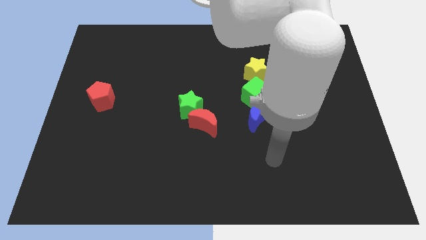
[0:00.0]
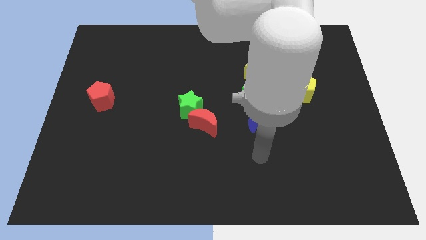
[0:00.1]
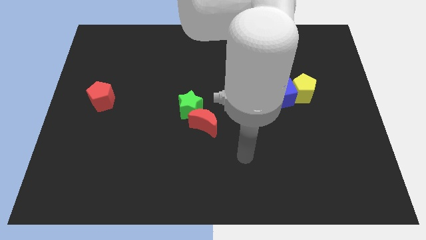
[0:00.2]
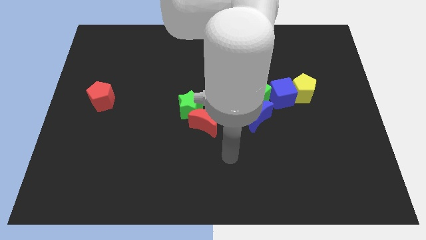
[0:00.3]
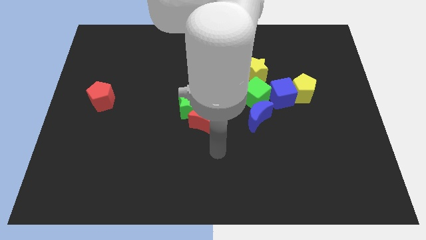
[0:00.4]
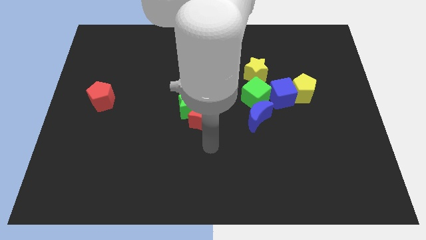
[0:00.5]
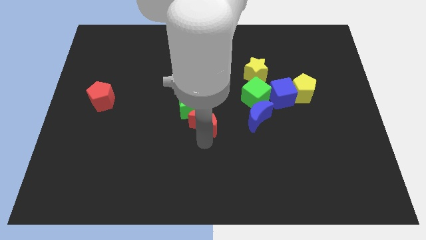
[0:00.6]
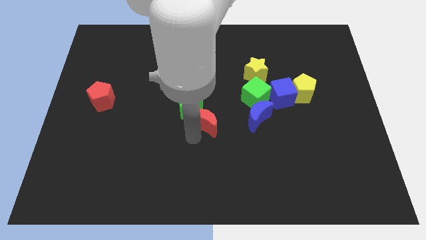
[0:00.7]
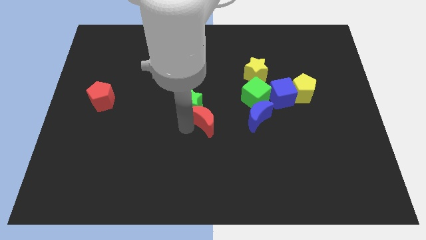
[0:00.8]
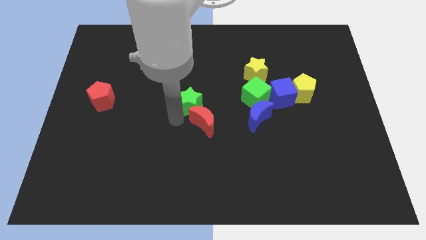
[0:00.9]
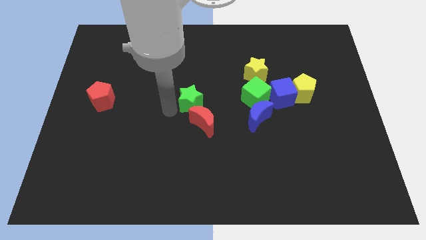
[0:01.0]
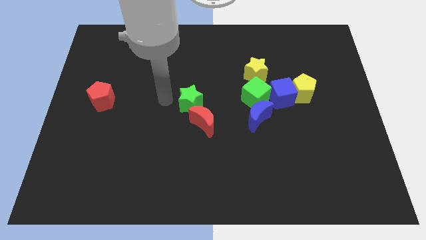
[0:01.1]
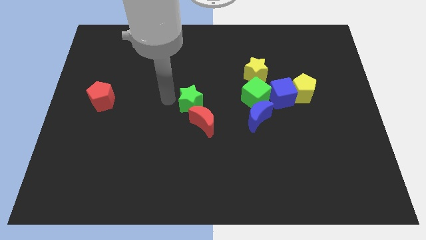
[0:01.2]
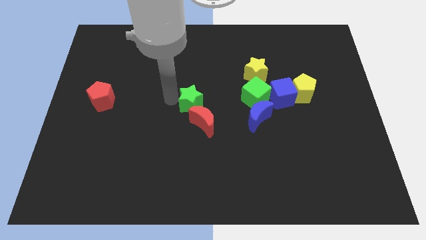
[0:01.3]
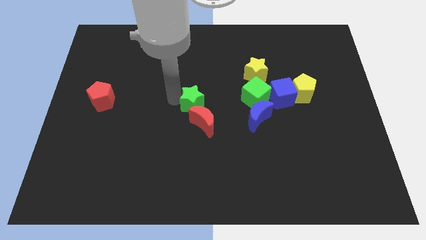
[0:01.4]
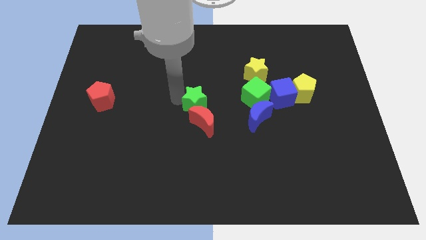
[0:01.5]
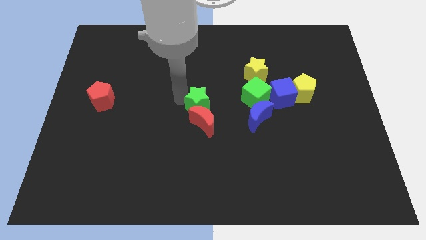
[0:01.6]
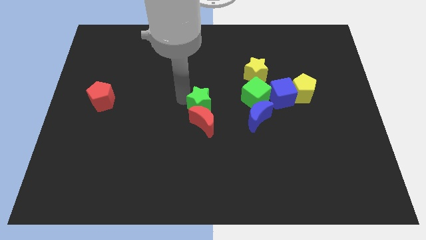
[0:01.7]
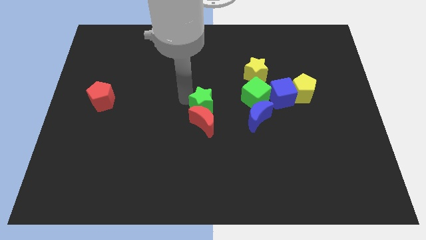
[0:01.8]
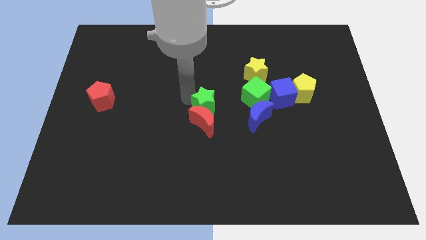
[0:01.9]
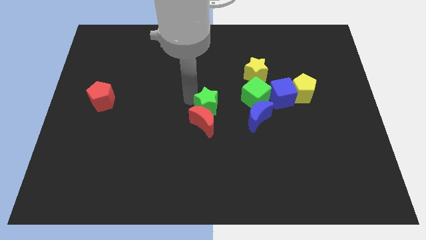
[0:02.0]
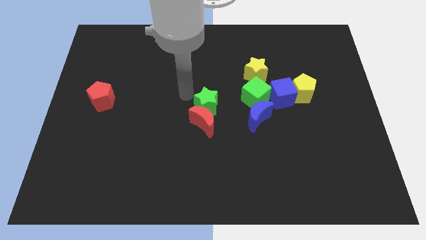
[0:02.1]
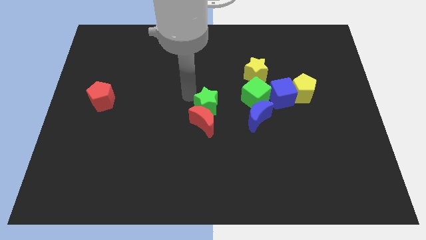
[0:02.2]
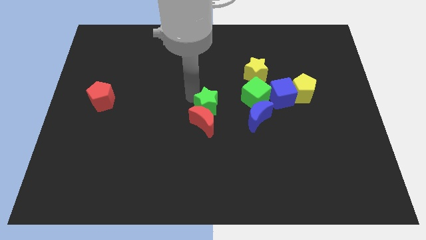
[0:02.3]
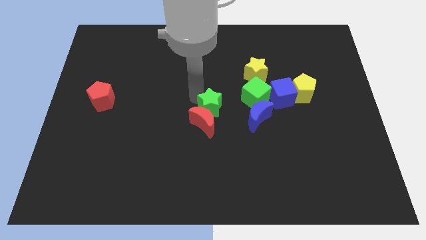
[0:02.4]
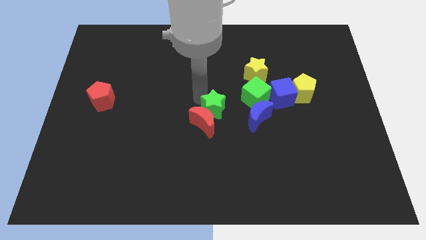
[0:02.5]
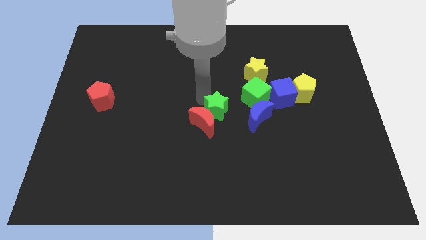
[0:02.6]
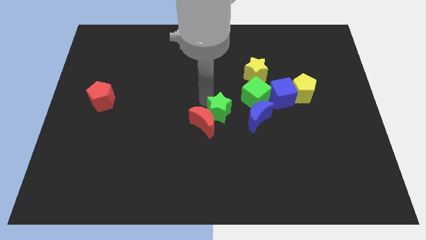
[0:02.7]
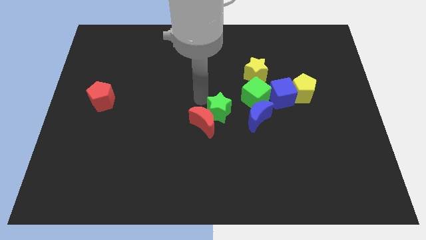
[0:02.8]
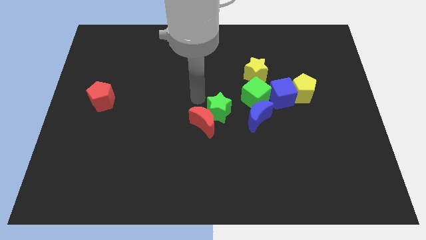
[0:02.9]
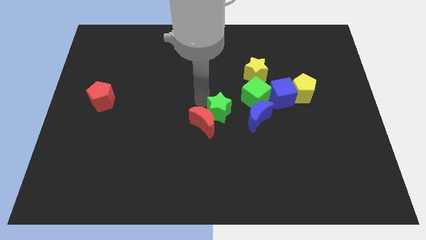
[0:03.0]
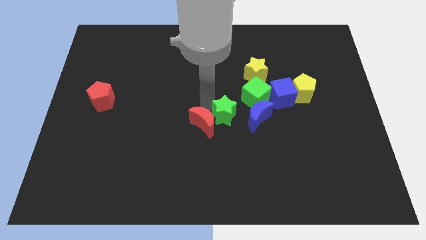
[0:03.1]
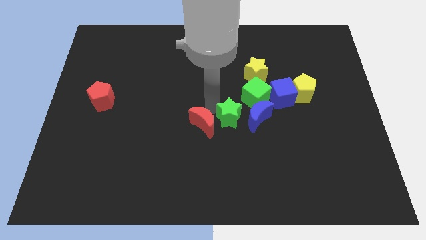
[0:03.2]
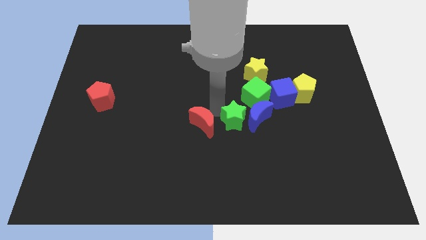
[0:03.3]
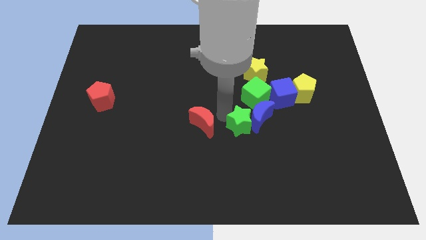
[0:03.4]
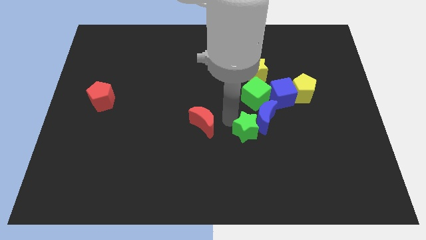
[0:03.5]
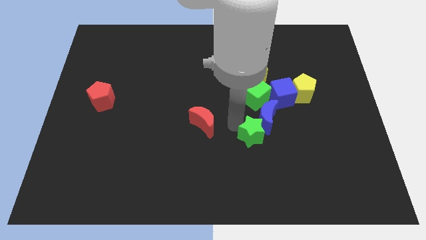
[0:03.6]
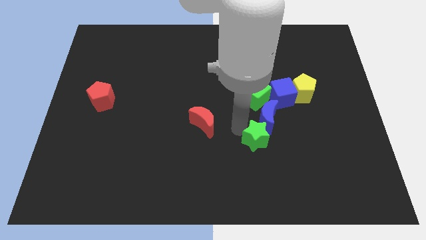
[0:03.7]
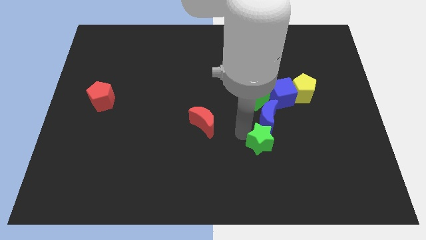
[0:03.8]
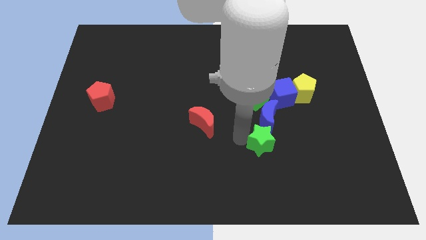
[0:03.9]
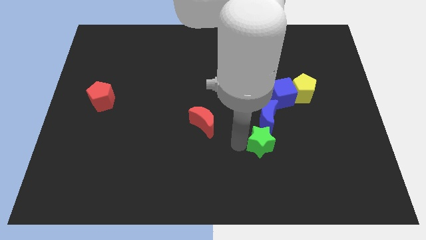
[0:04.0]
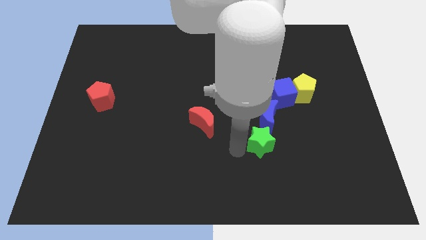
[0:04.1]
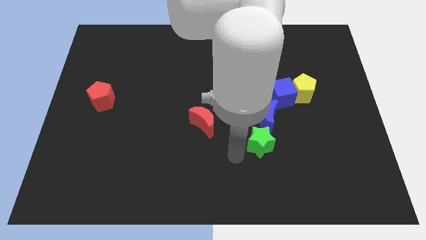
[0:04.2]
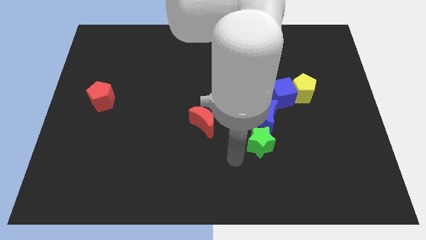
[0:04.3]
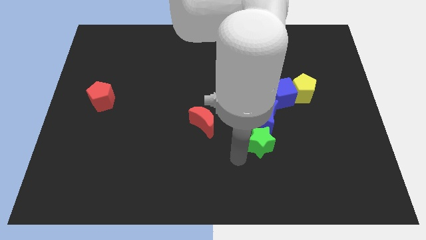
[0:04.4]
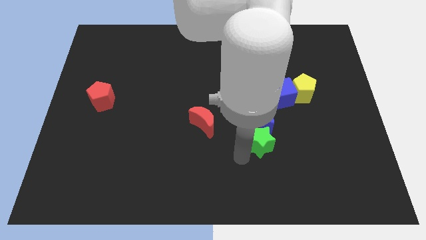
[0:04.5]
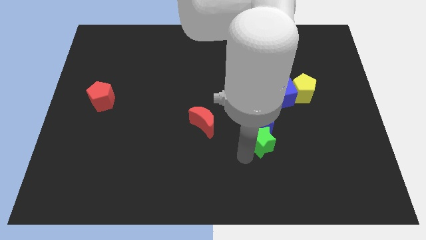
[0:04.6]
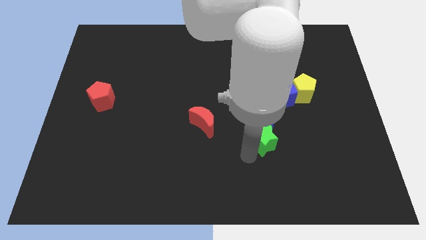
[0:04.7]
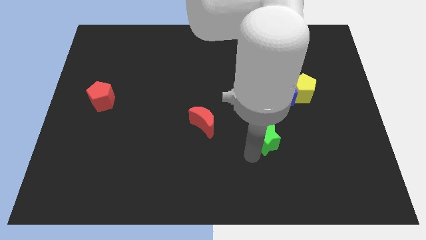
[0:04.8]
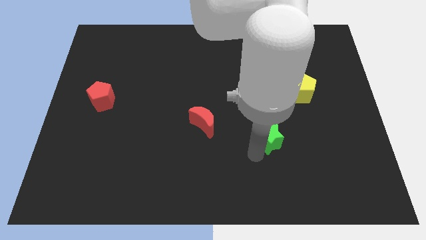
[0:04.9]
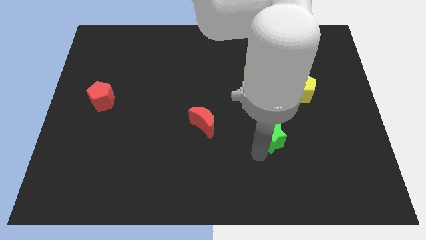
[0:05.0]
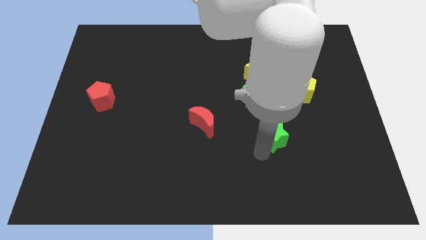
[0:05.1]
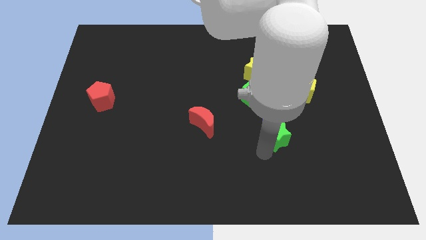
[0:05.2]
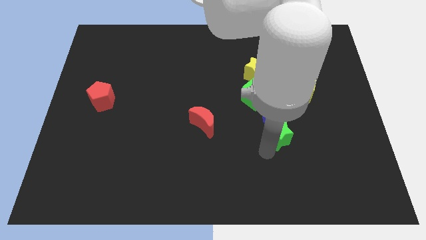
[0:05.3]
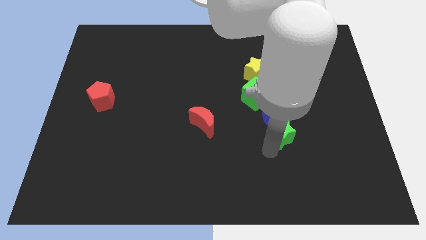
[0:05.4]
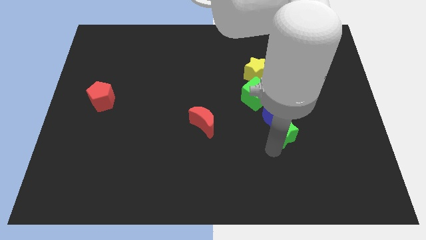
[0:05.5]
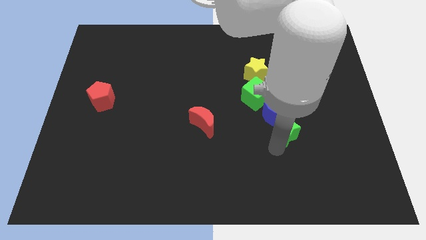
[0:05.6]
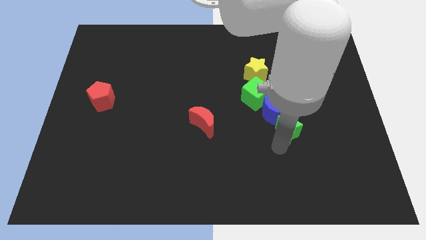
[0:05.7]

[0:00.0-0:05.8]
push the green star right

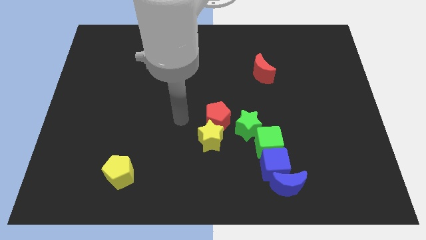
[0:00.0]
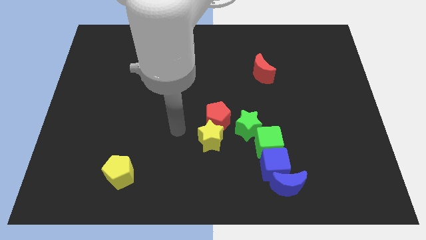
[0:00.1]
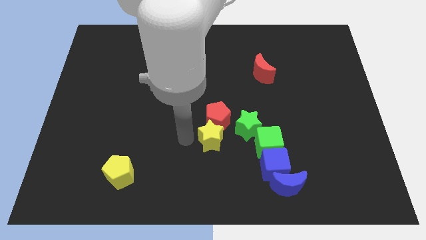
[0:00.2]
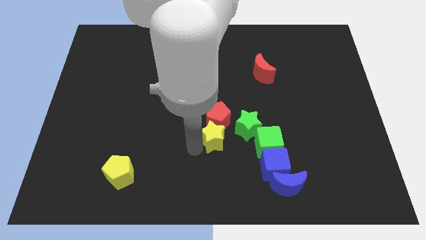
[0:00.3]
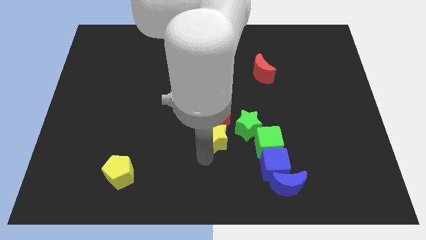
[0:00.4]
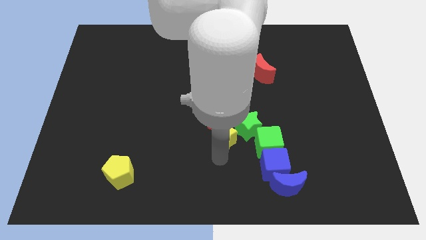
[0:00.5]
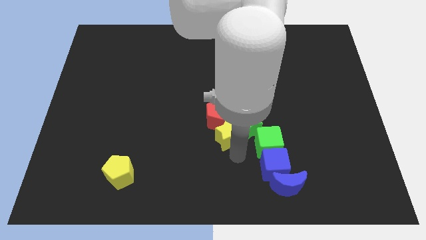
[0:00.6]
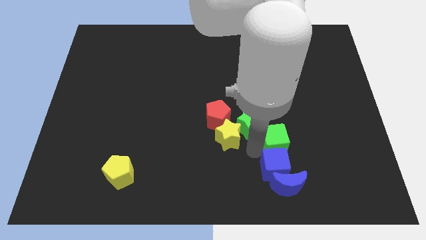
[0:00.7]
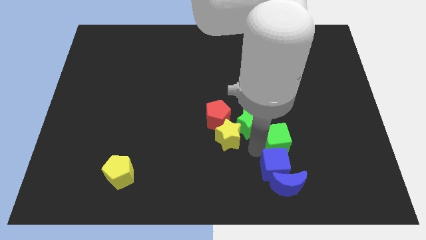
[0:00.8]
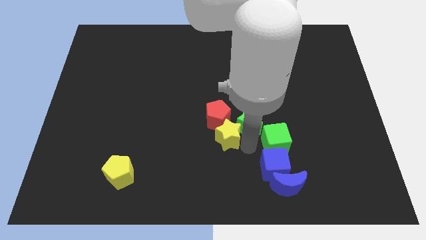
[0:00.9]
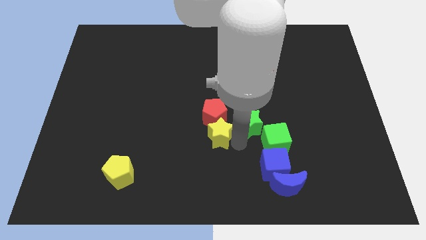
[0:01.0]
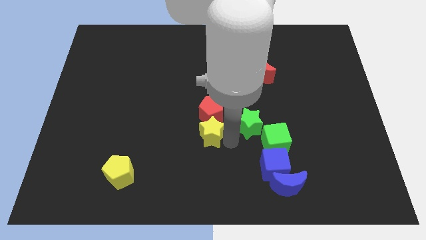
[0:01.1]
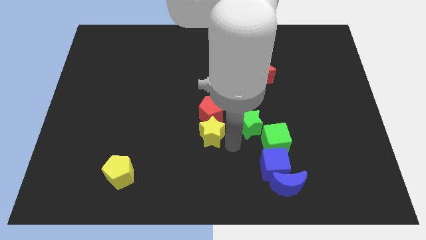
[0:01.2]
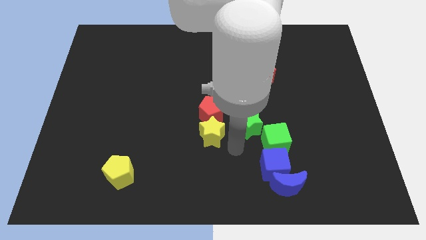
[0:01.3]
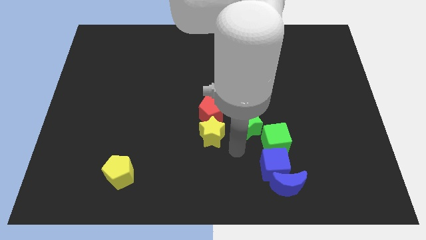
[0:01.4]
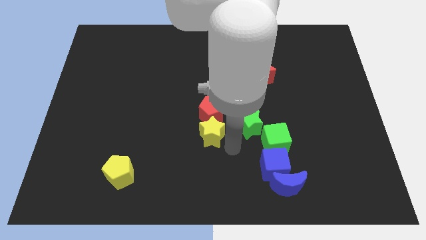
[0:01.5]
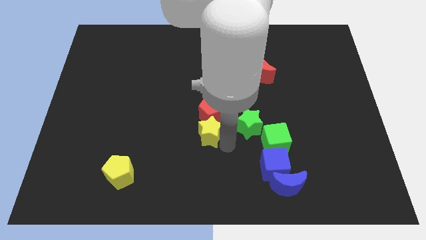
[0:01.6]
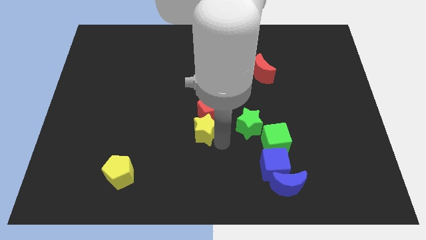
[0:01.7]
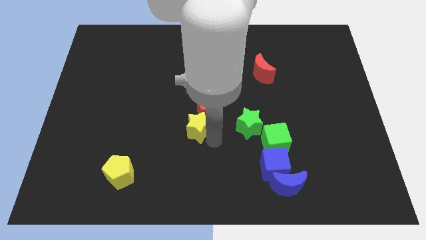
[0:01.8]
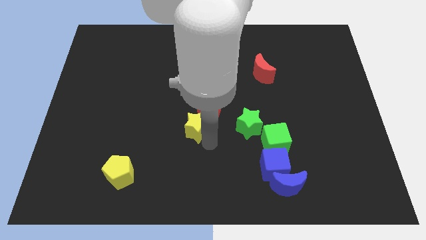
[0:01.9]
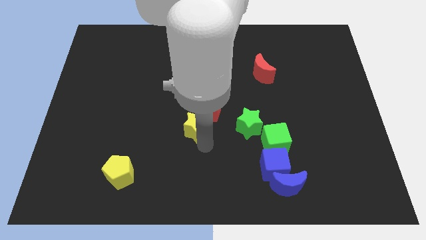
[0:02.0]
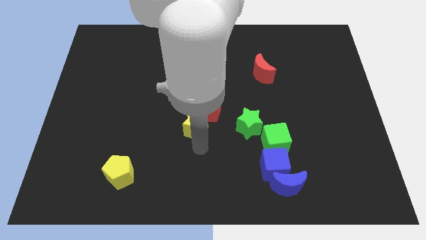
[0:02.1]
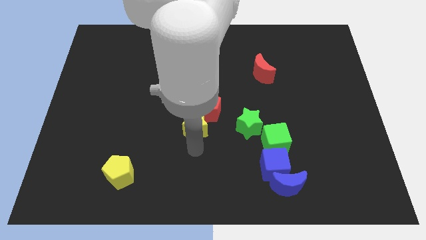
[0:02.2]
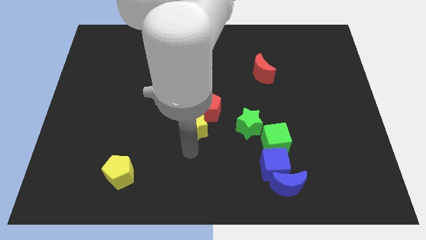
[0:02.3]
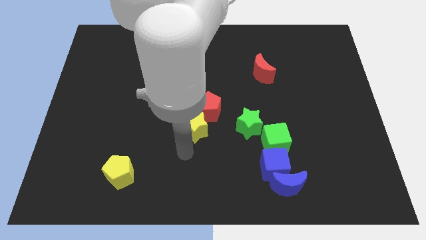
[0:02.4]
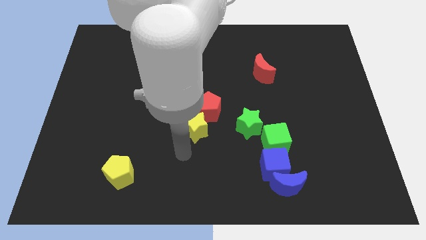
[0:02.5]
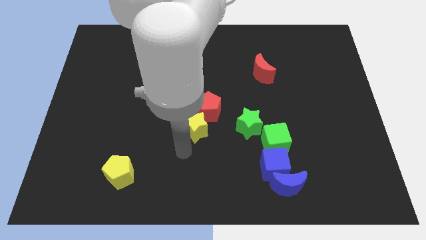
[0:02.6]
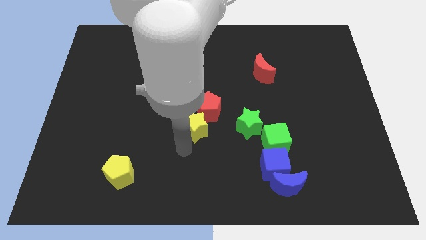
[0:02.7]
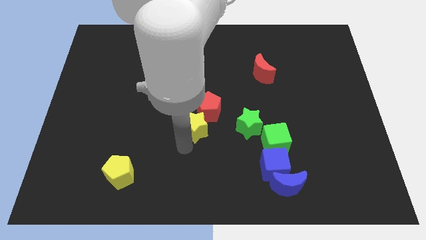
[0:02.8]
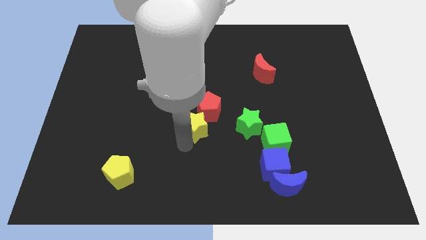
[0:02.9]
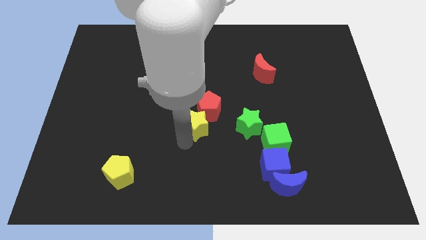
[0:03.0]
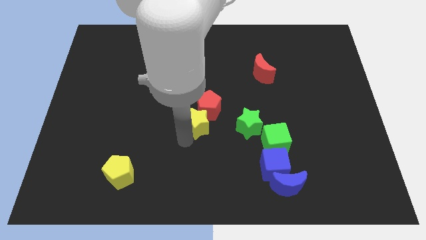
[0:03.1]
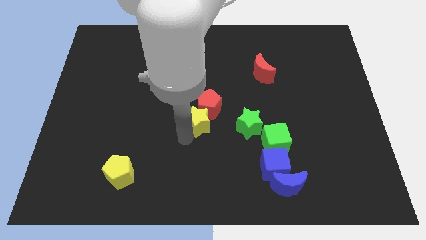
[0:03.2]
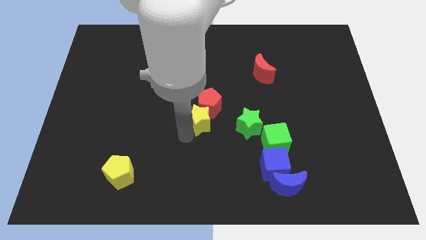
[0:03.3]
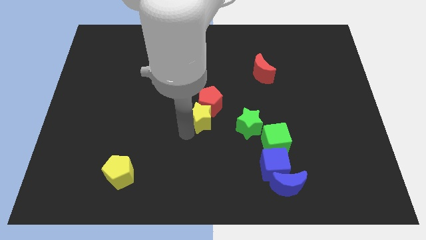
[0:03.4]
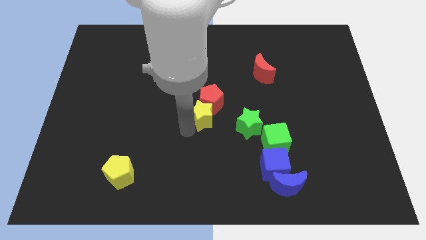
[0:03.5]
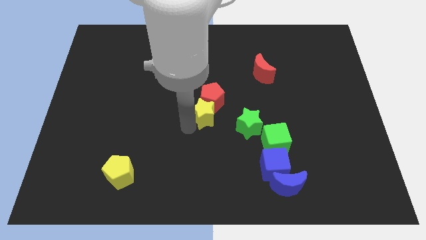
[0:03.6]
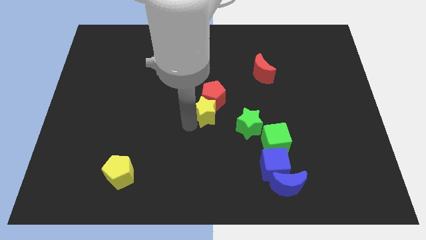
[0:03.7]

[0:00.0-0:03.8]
slightly slide the yellow star up
